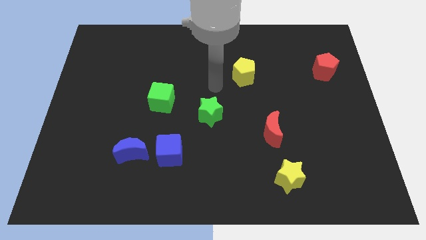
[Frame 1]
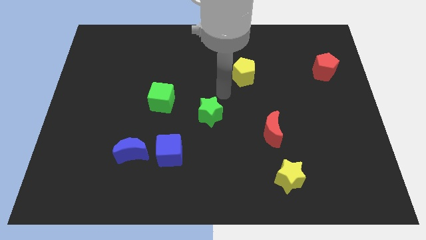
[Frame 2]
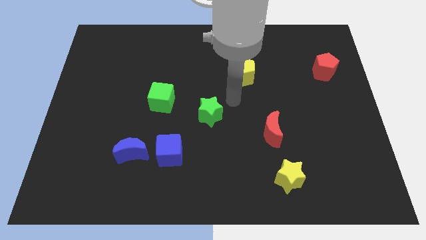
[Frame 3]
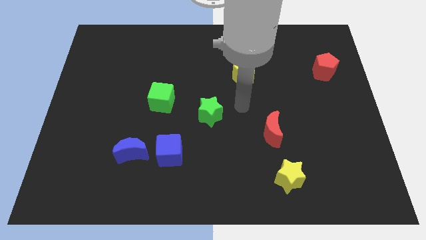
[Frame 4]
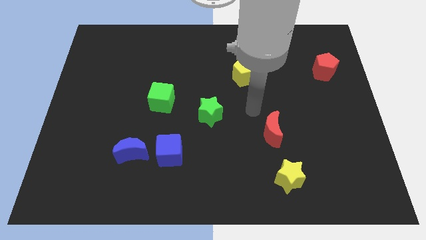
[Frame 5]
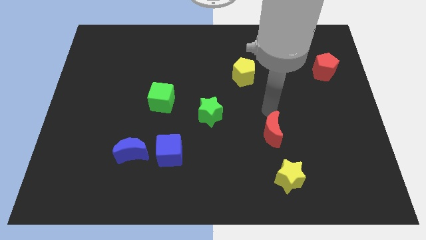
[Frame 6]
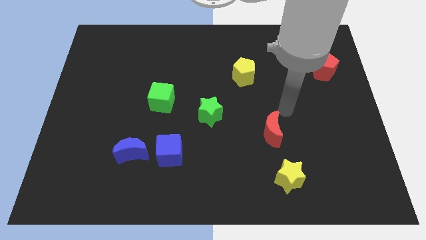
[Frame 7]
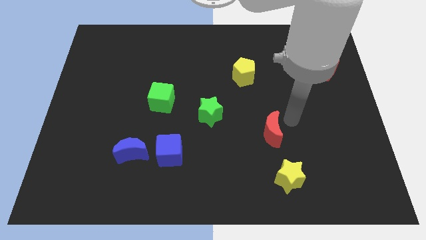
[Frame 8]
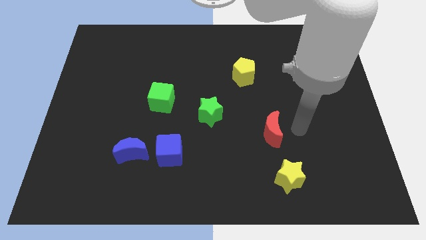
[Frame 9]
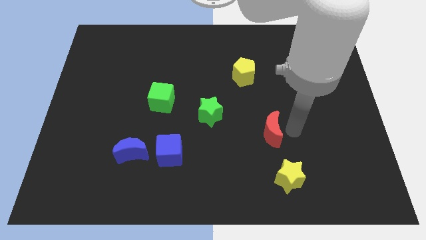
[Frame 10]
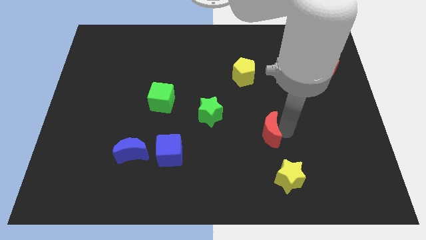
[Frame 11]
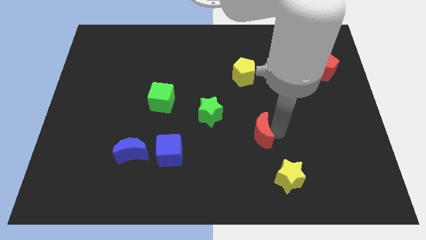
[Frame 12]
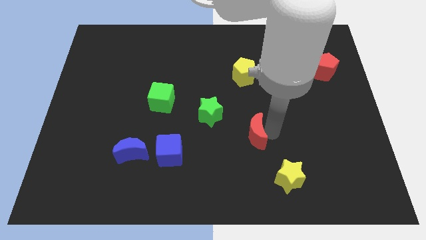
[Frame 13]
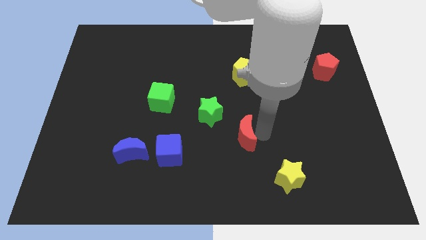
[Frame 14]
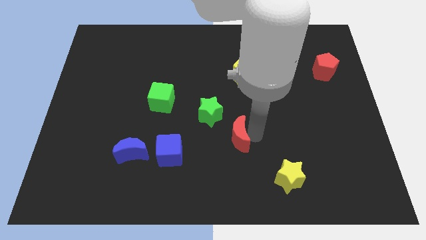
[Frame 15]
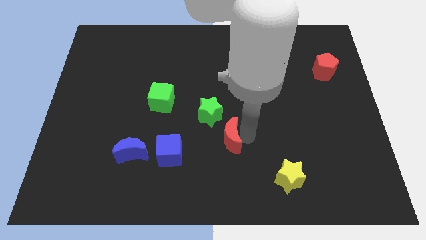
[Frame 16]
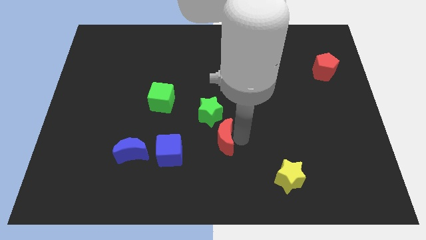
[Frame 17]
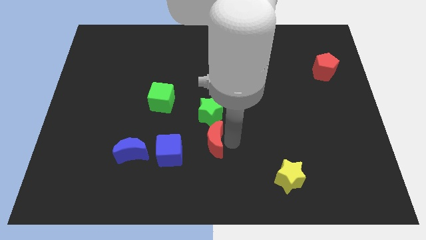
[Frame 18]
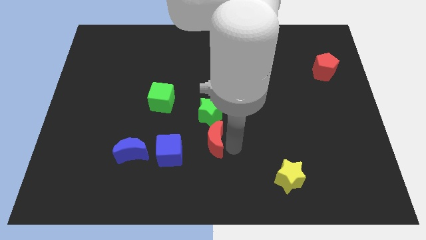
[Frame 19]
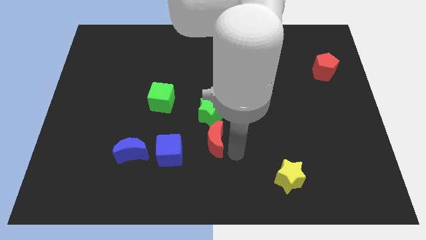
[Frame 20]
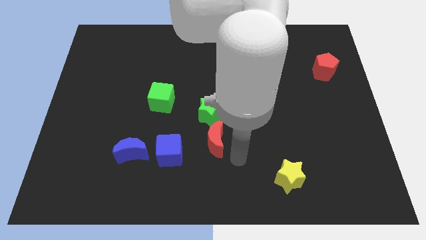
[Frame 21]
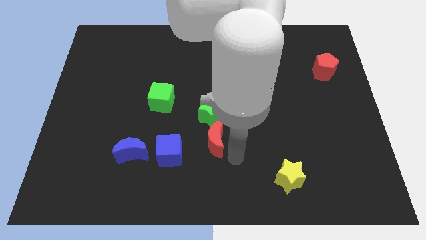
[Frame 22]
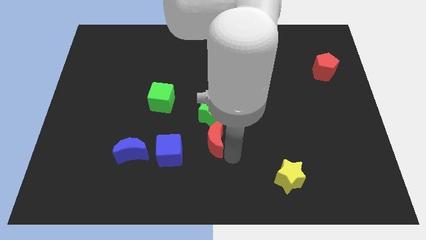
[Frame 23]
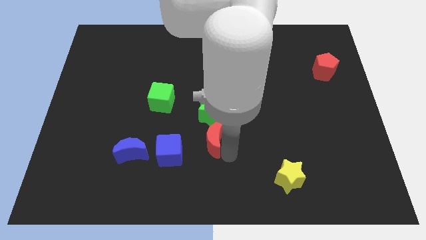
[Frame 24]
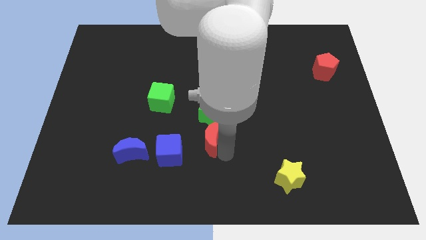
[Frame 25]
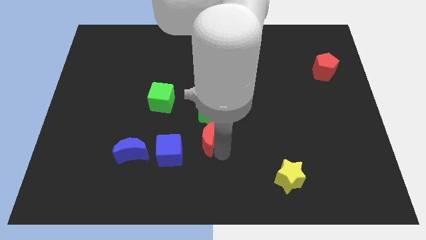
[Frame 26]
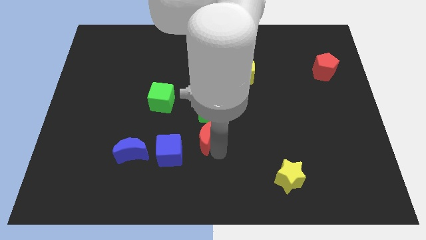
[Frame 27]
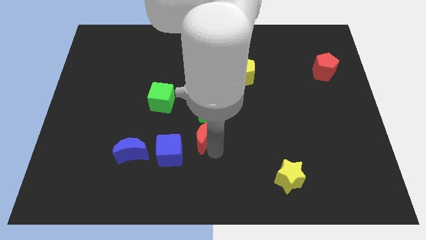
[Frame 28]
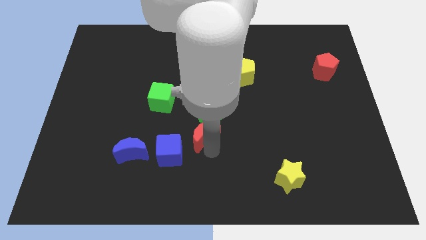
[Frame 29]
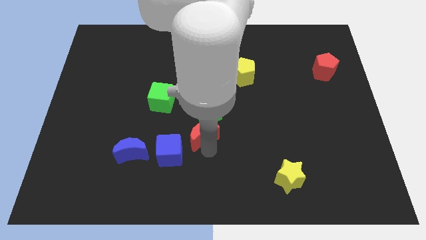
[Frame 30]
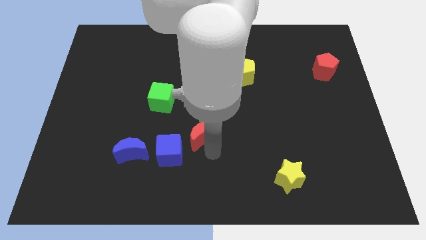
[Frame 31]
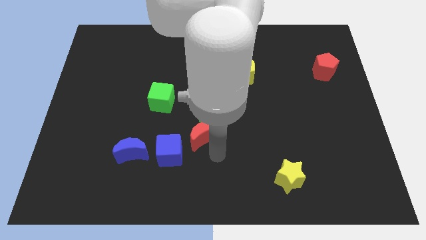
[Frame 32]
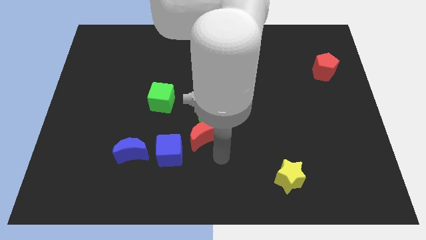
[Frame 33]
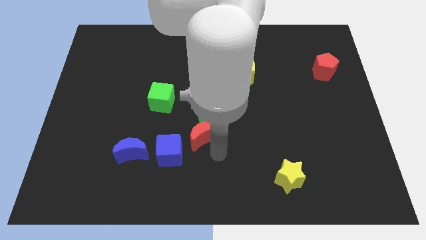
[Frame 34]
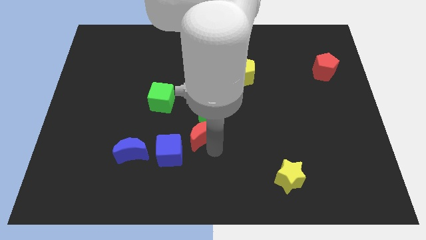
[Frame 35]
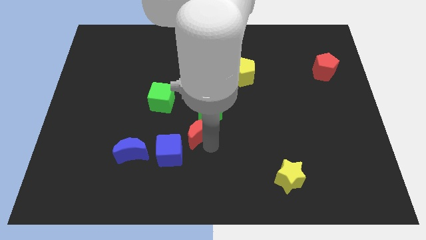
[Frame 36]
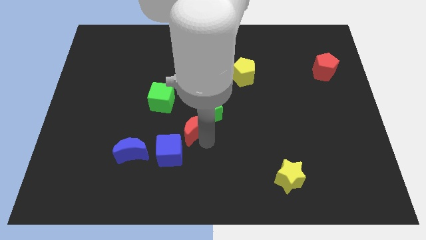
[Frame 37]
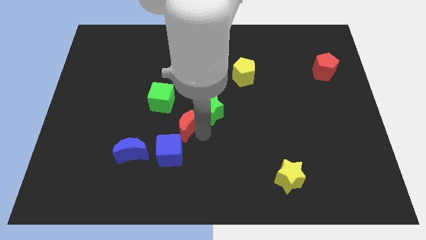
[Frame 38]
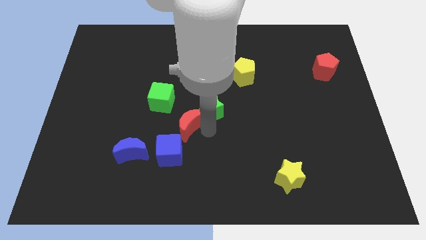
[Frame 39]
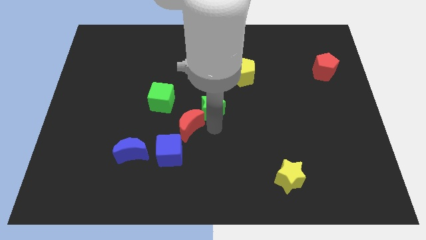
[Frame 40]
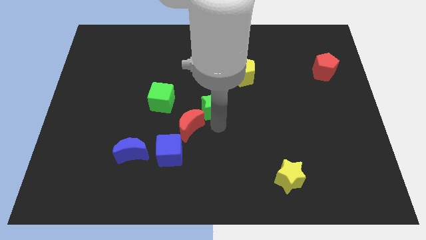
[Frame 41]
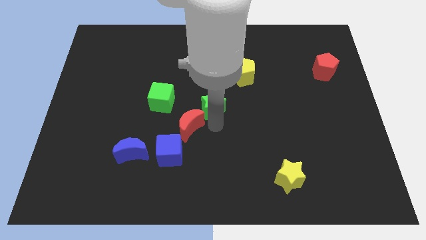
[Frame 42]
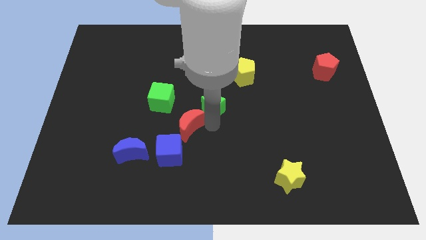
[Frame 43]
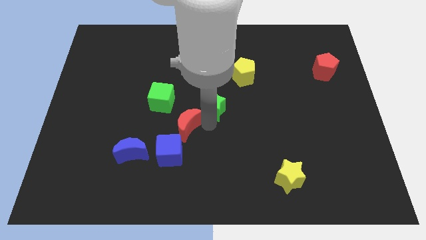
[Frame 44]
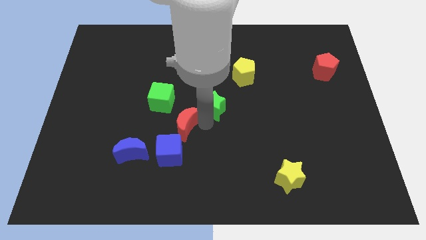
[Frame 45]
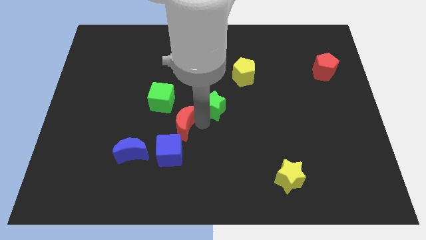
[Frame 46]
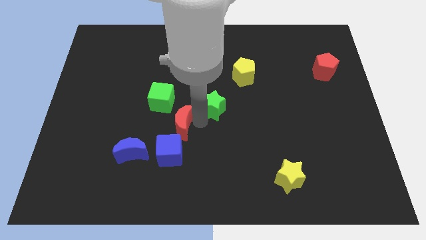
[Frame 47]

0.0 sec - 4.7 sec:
slide the red moon left

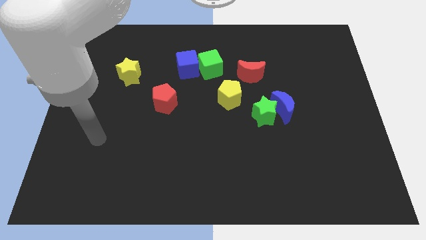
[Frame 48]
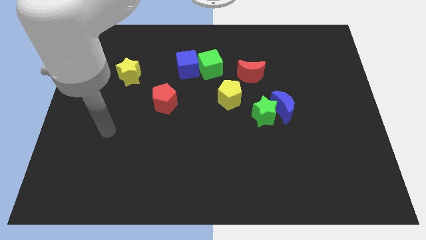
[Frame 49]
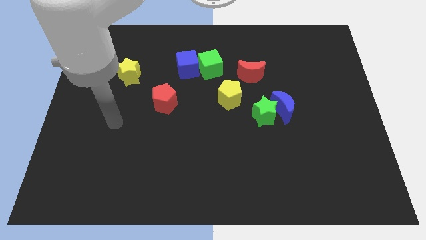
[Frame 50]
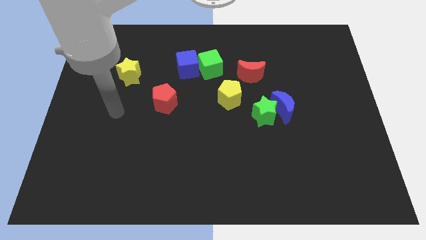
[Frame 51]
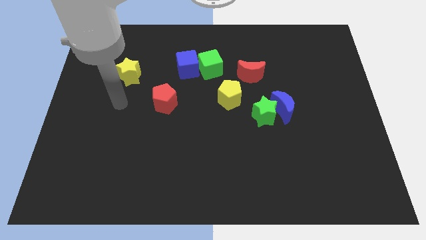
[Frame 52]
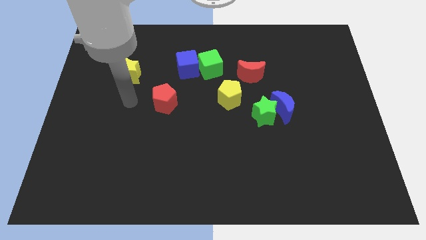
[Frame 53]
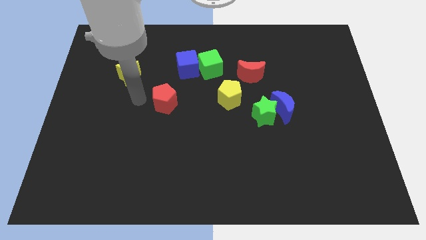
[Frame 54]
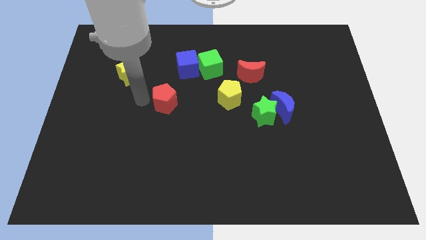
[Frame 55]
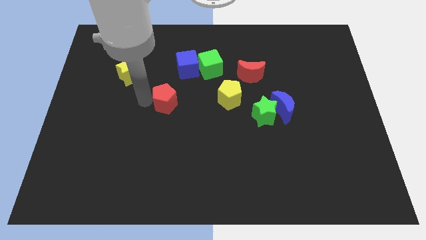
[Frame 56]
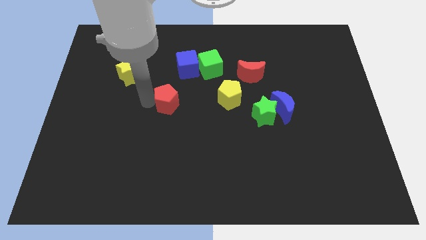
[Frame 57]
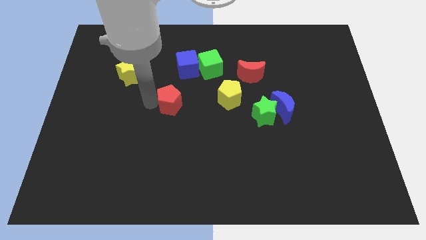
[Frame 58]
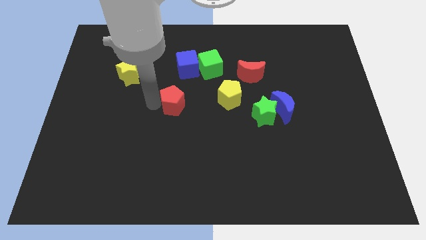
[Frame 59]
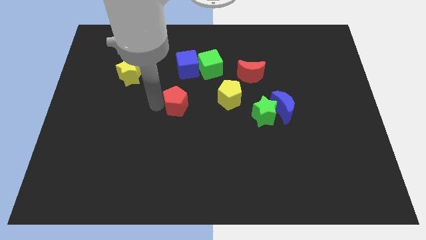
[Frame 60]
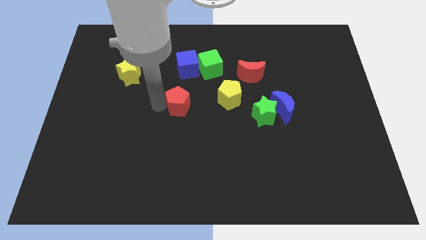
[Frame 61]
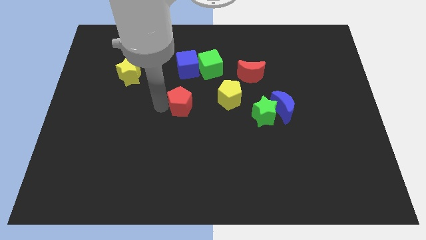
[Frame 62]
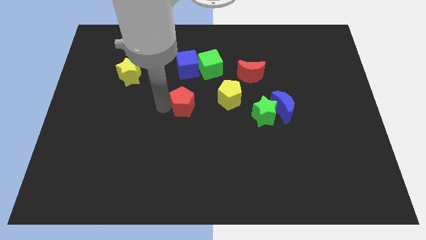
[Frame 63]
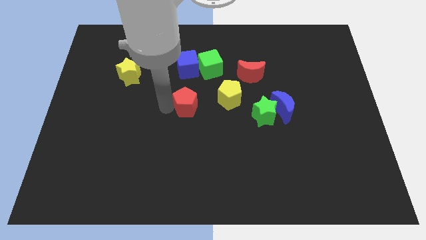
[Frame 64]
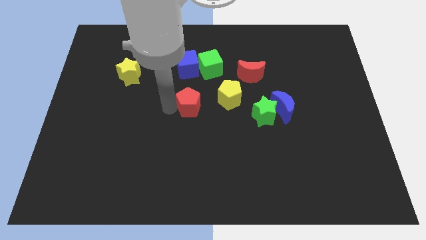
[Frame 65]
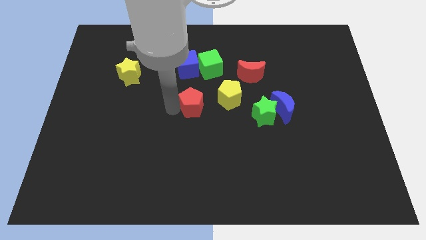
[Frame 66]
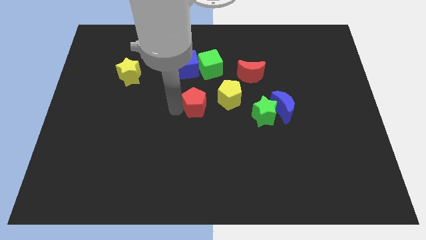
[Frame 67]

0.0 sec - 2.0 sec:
slightly push the red pentagon right

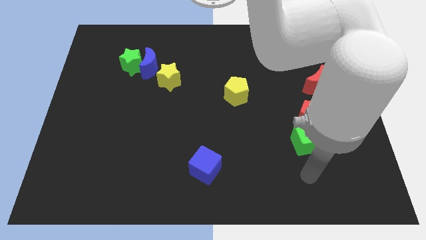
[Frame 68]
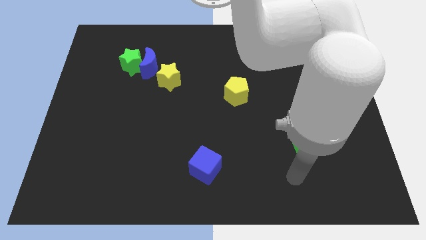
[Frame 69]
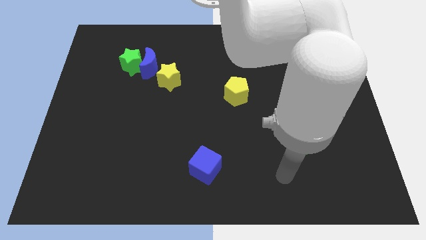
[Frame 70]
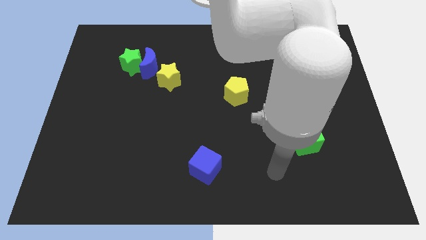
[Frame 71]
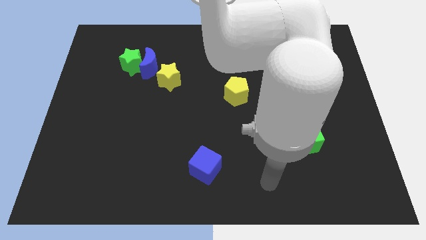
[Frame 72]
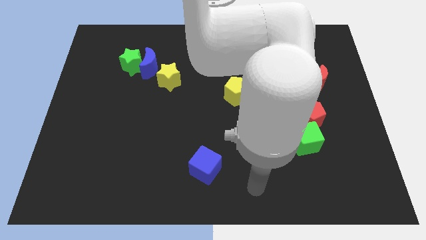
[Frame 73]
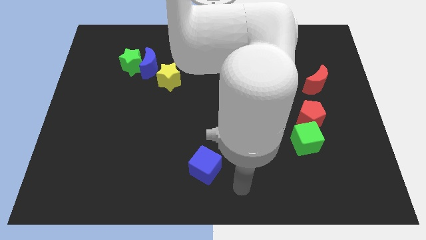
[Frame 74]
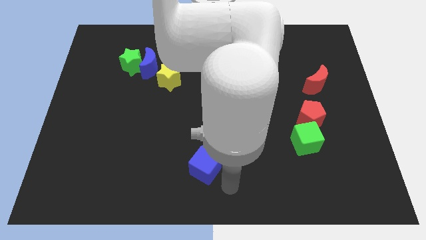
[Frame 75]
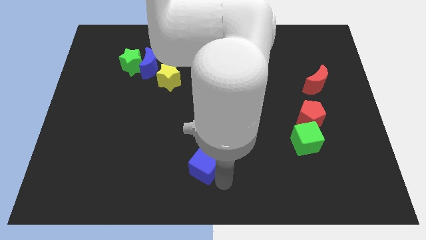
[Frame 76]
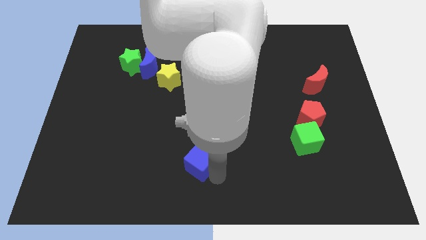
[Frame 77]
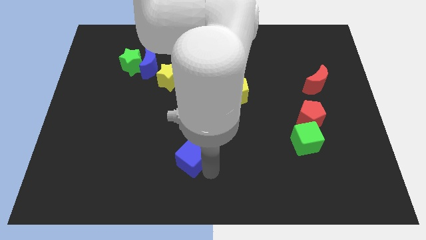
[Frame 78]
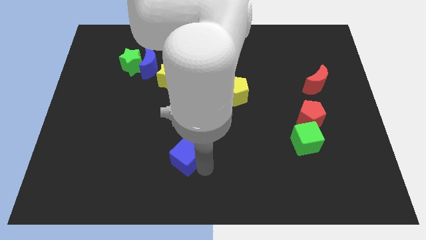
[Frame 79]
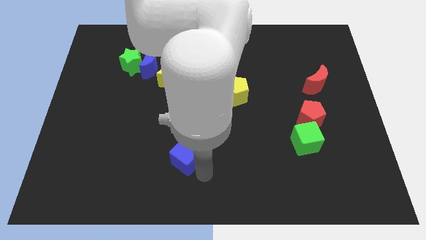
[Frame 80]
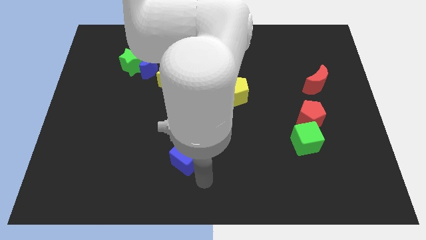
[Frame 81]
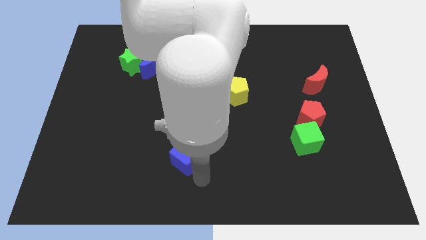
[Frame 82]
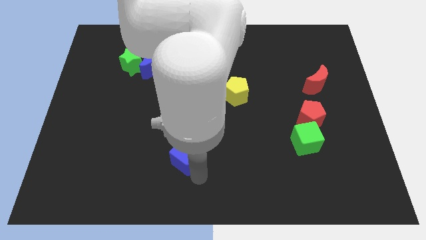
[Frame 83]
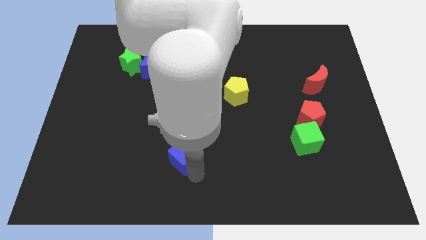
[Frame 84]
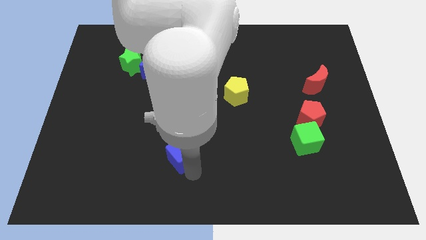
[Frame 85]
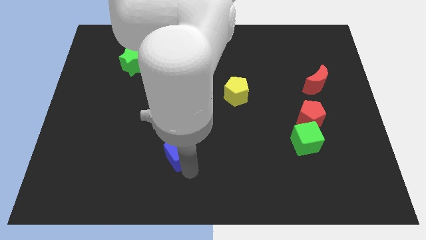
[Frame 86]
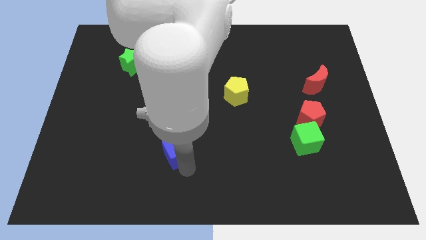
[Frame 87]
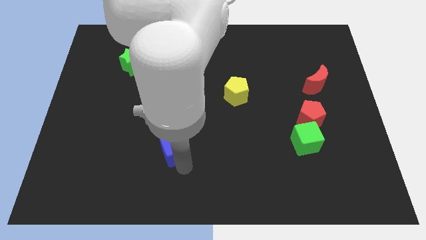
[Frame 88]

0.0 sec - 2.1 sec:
move the blue cube slightly up and to the left
